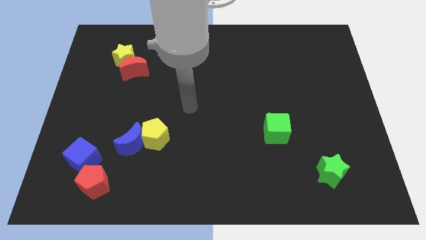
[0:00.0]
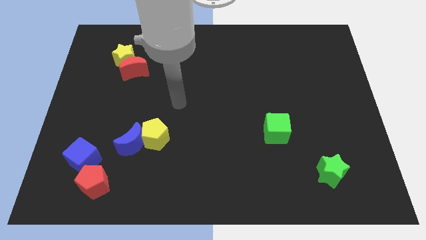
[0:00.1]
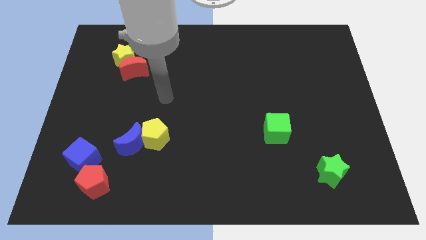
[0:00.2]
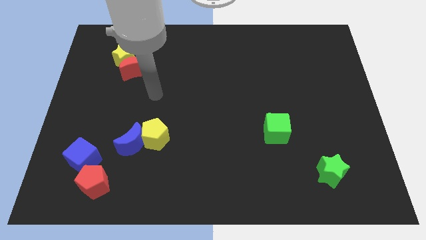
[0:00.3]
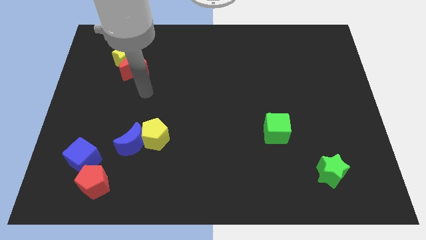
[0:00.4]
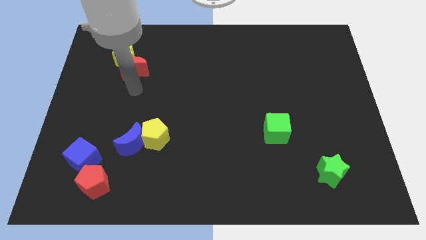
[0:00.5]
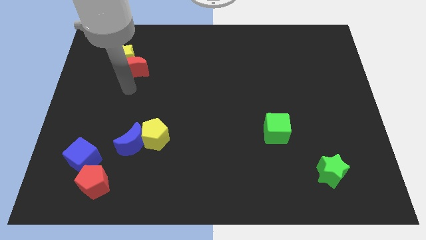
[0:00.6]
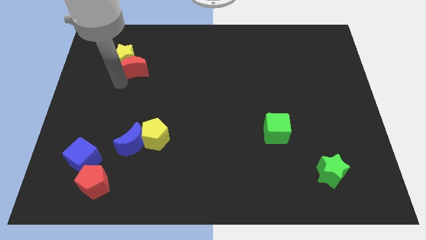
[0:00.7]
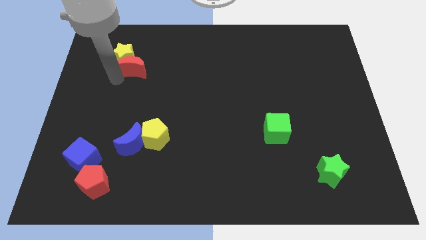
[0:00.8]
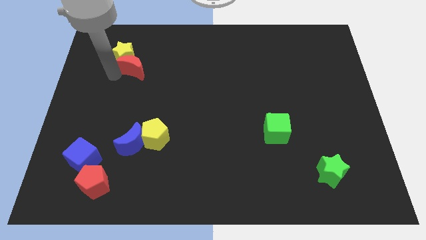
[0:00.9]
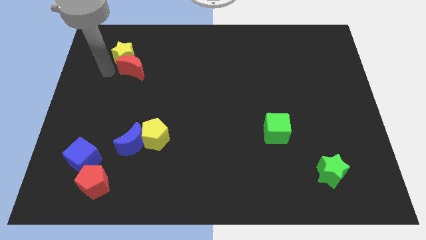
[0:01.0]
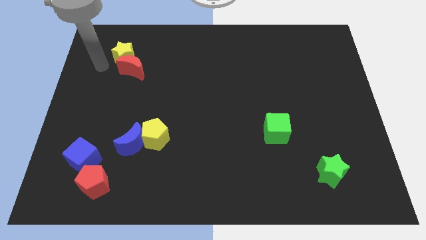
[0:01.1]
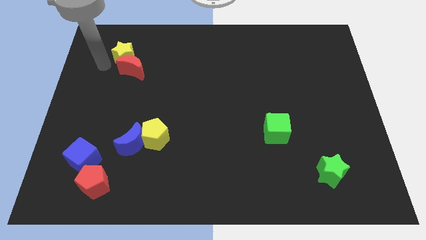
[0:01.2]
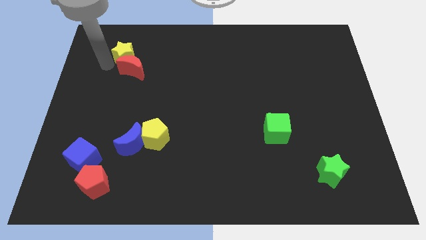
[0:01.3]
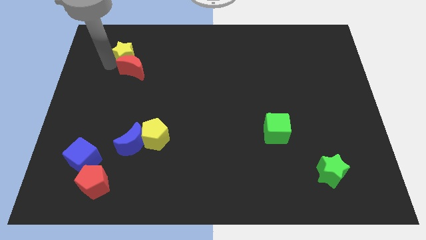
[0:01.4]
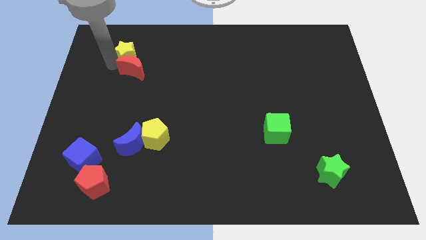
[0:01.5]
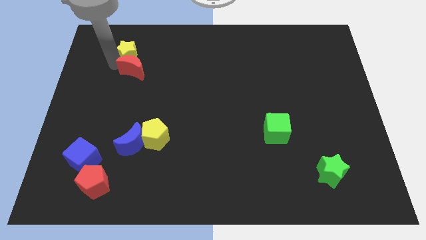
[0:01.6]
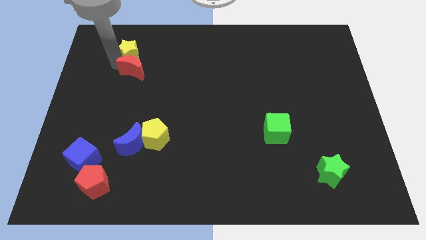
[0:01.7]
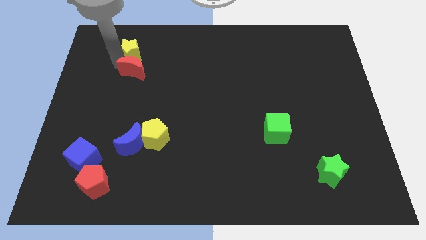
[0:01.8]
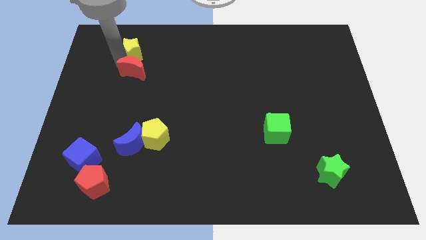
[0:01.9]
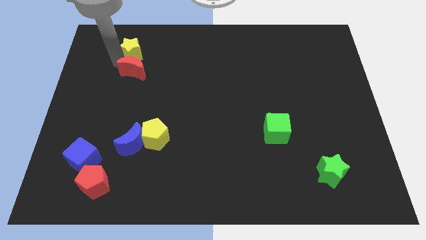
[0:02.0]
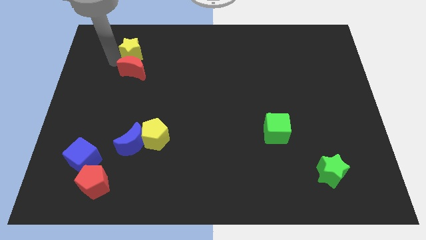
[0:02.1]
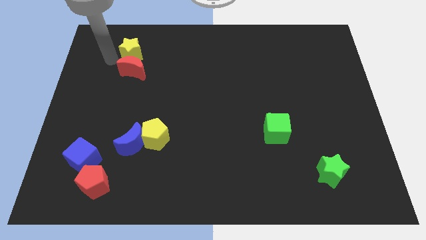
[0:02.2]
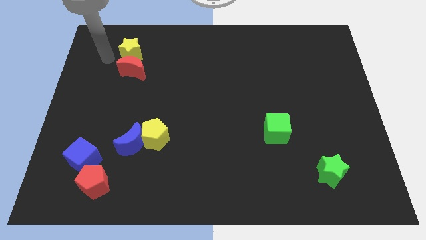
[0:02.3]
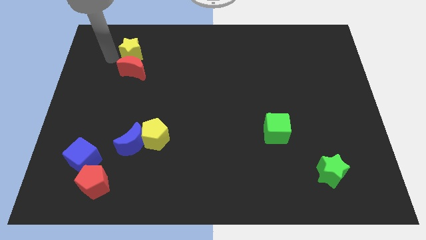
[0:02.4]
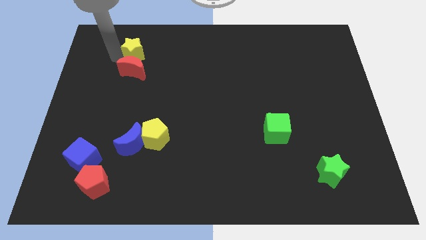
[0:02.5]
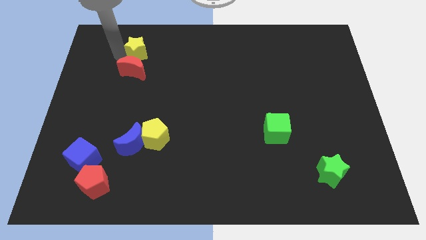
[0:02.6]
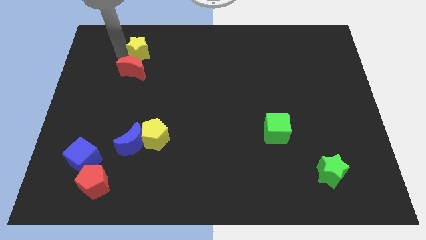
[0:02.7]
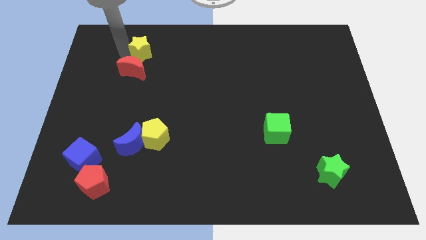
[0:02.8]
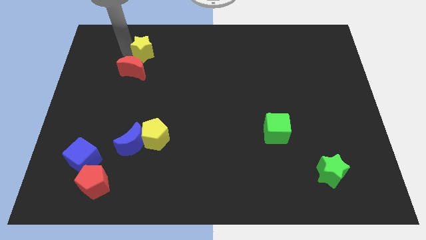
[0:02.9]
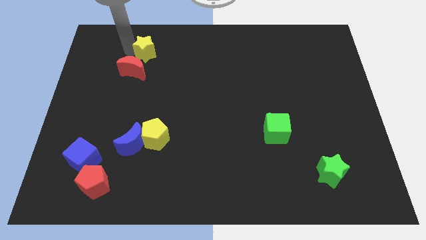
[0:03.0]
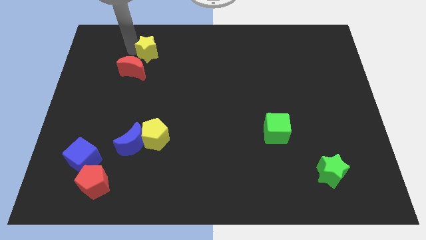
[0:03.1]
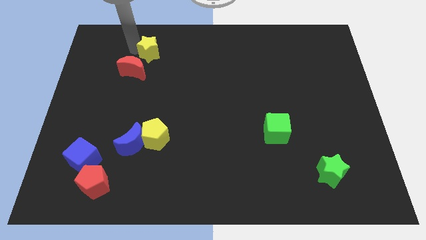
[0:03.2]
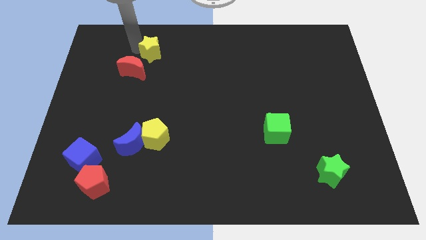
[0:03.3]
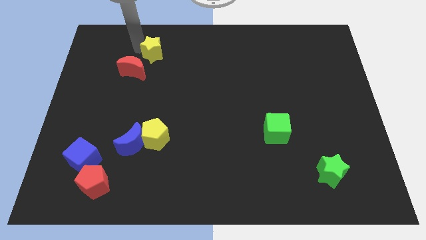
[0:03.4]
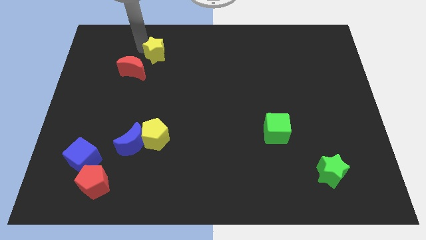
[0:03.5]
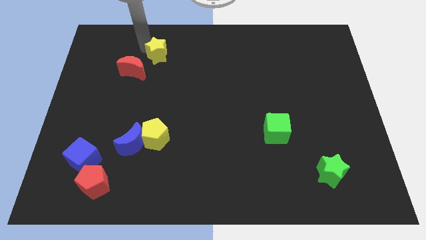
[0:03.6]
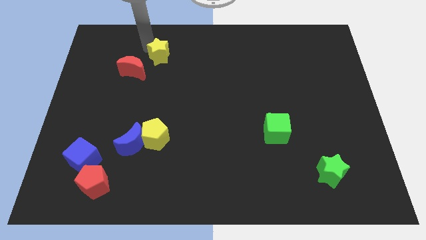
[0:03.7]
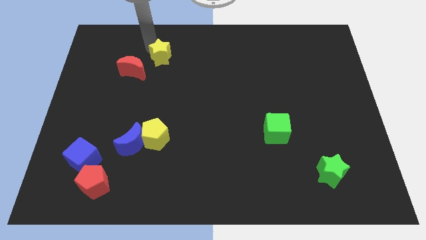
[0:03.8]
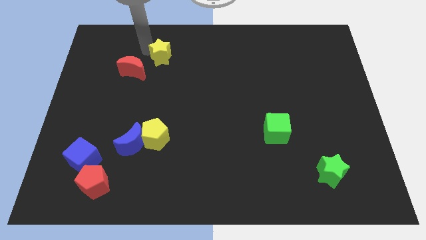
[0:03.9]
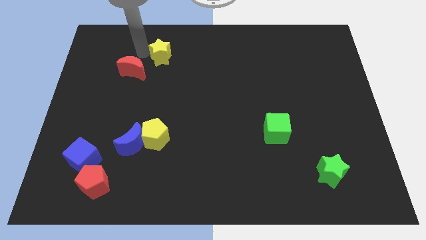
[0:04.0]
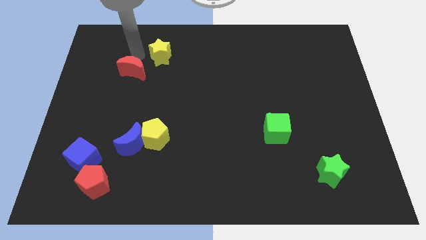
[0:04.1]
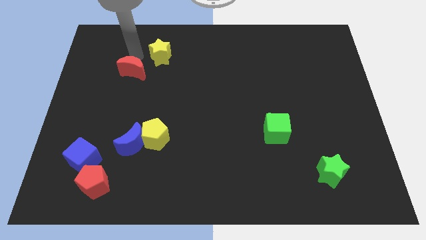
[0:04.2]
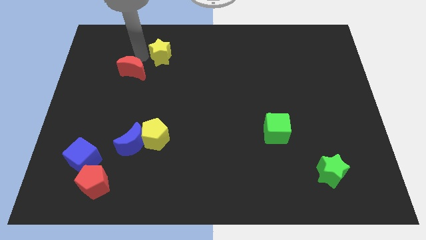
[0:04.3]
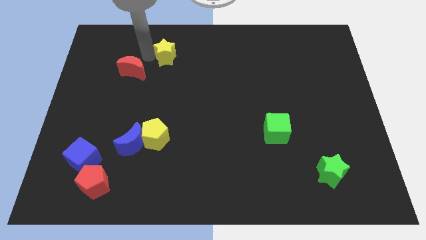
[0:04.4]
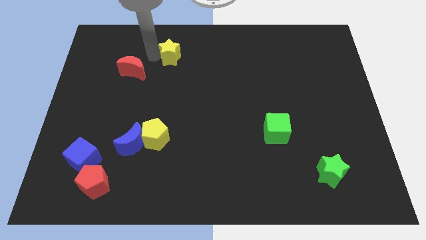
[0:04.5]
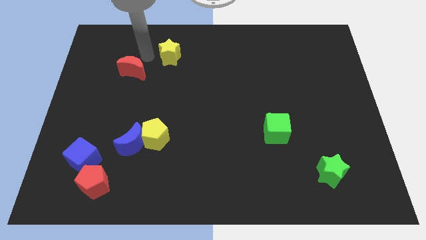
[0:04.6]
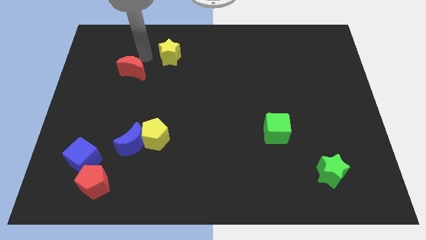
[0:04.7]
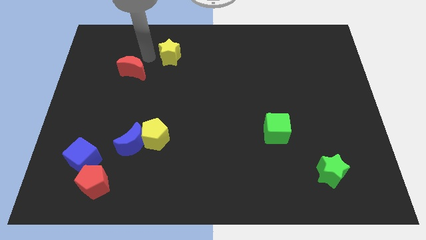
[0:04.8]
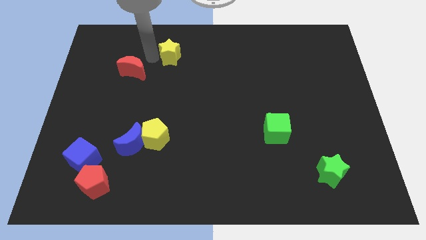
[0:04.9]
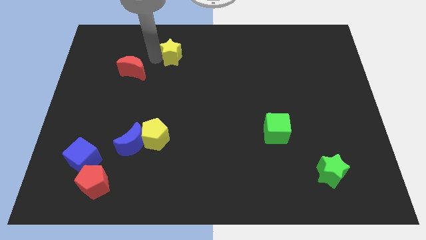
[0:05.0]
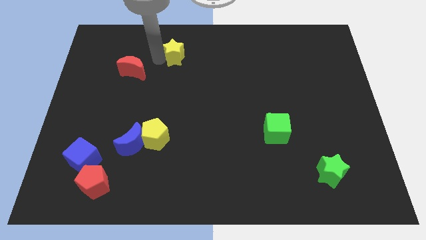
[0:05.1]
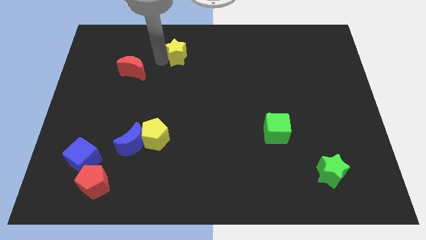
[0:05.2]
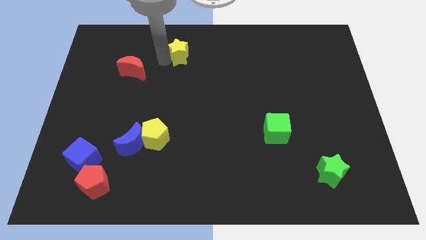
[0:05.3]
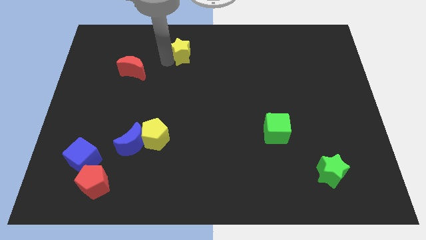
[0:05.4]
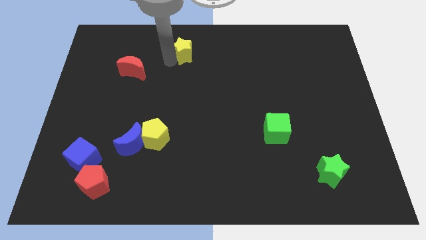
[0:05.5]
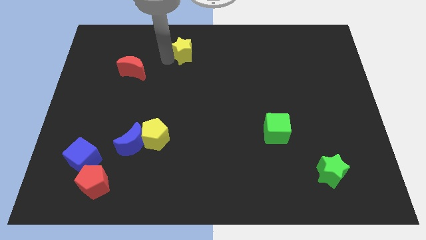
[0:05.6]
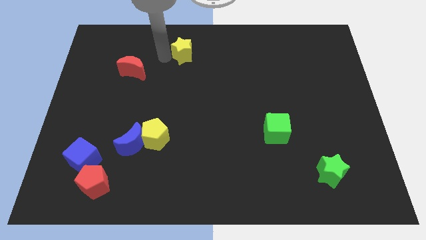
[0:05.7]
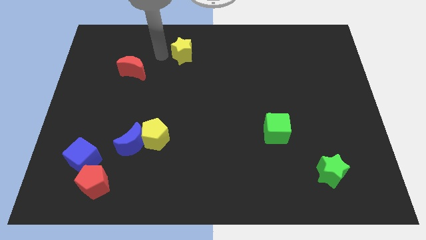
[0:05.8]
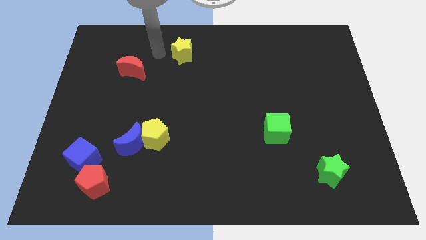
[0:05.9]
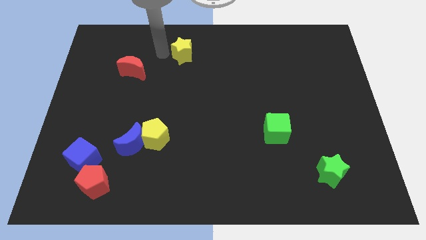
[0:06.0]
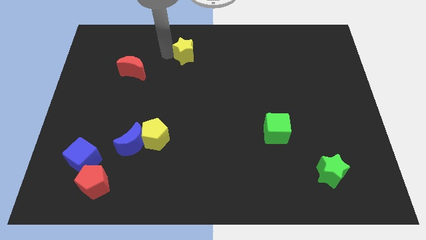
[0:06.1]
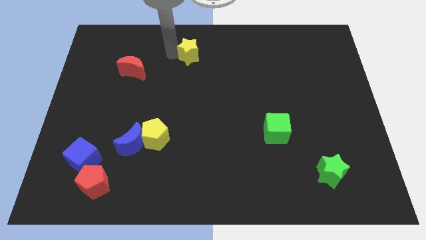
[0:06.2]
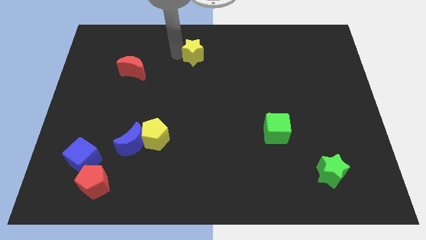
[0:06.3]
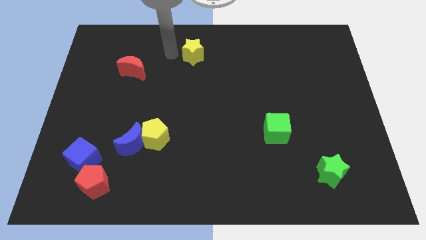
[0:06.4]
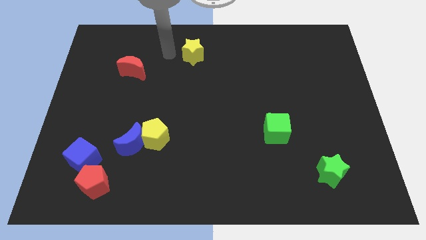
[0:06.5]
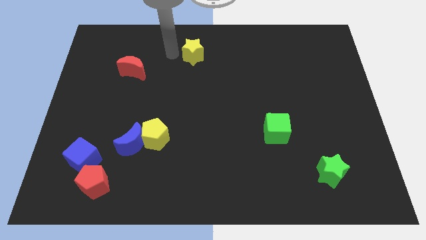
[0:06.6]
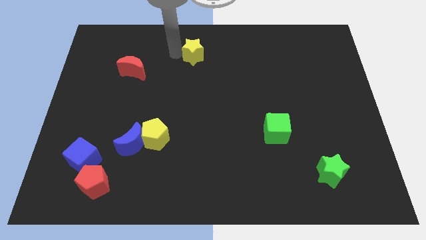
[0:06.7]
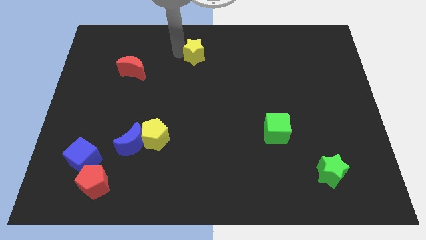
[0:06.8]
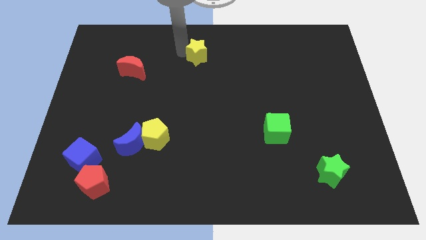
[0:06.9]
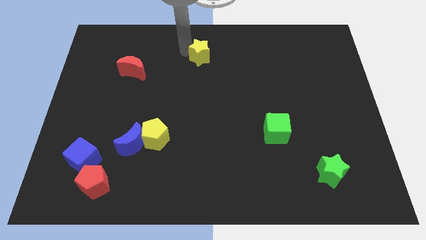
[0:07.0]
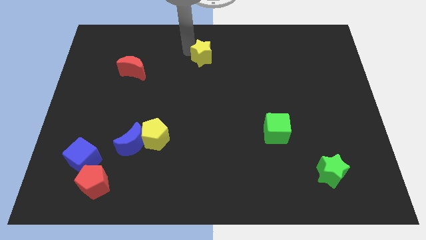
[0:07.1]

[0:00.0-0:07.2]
move the yellow star right

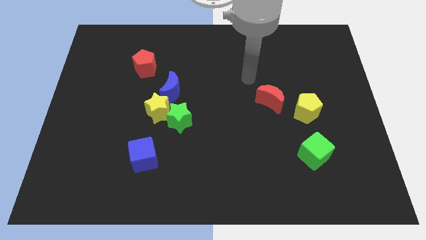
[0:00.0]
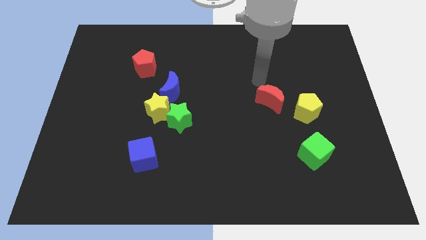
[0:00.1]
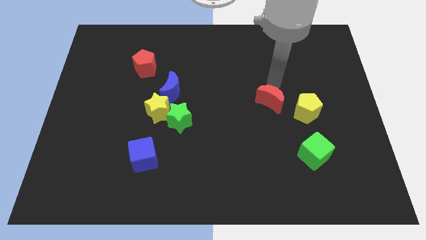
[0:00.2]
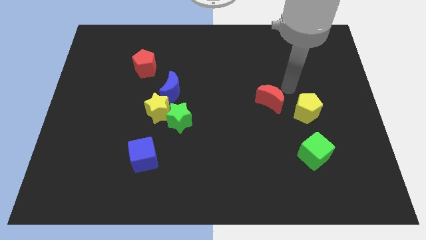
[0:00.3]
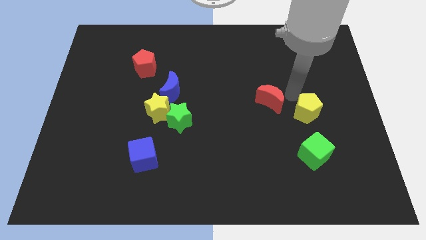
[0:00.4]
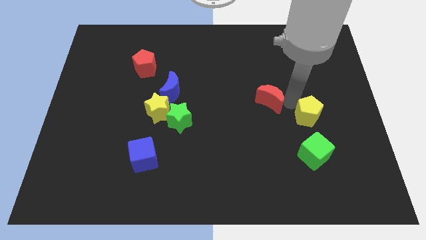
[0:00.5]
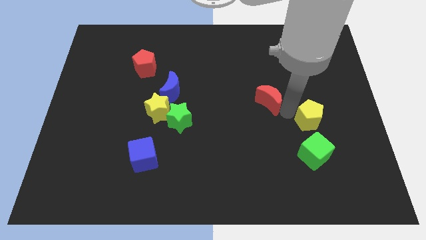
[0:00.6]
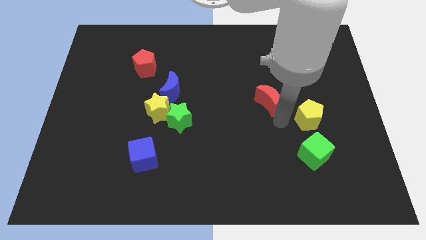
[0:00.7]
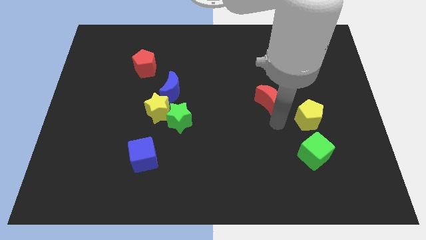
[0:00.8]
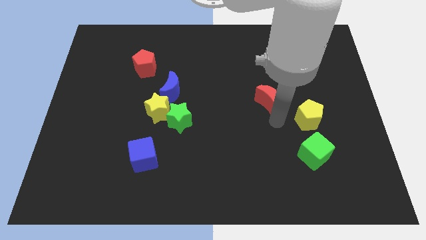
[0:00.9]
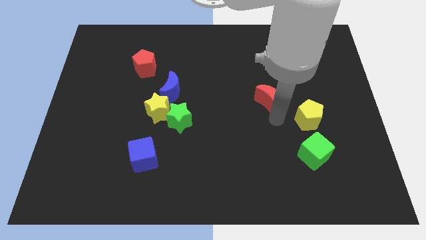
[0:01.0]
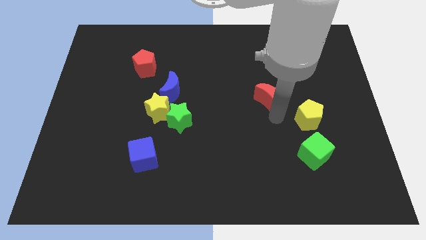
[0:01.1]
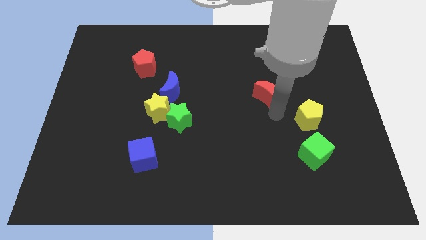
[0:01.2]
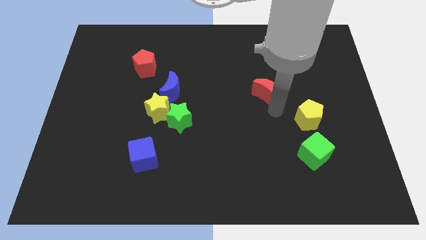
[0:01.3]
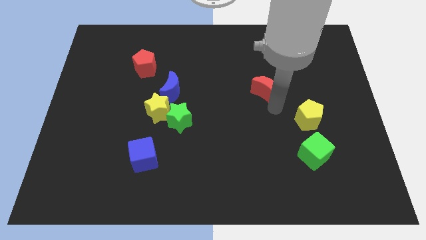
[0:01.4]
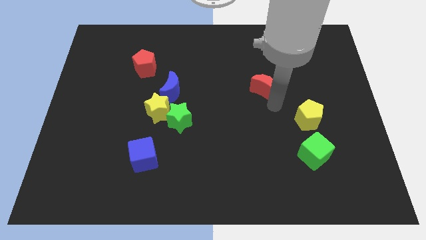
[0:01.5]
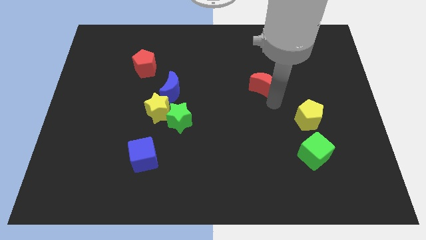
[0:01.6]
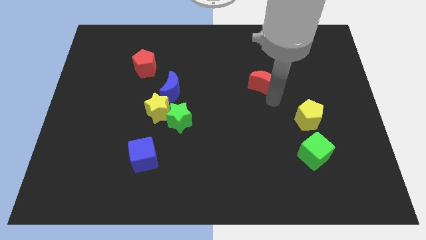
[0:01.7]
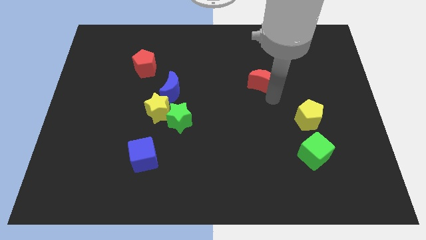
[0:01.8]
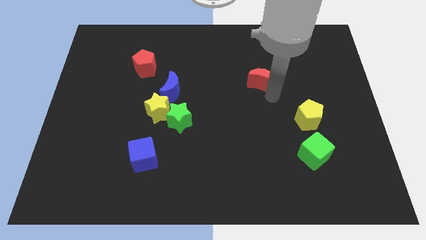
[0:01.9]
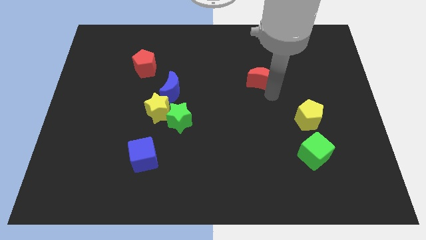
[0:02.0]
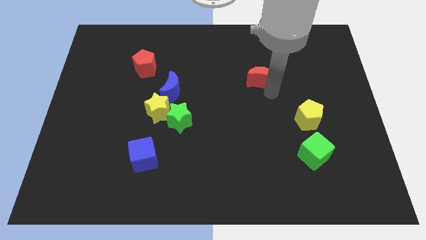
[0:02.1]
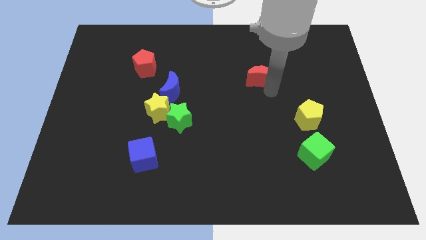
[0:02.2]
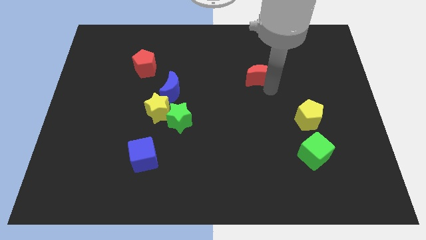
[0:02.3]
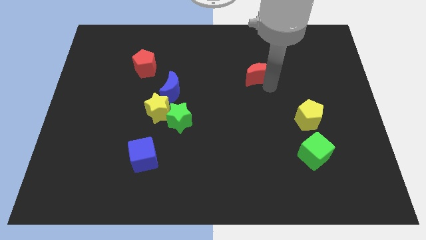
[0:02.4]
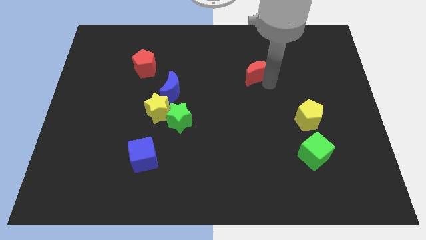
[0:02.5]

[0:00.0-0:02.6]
slightly push the red moon diagonally up and left
